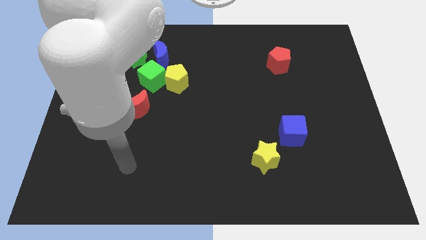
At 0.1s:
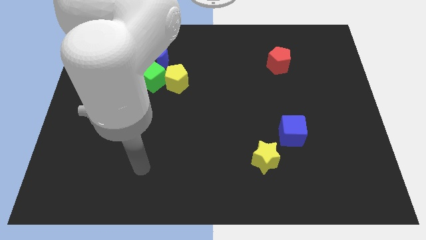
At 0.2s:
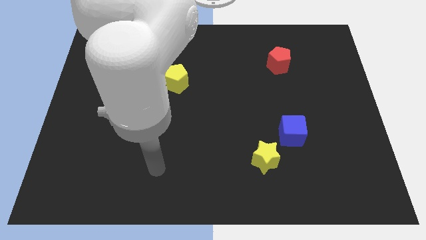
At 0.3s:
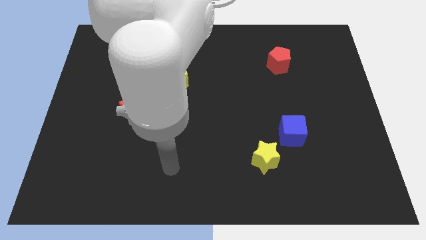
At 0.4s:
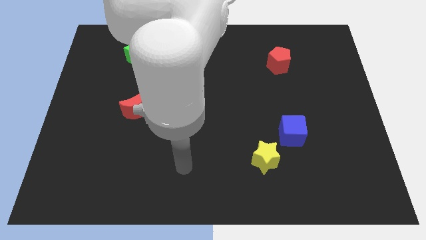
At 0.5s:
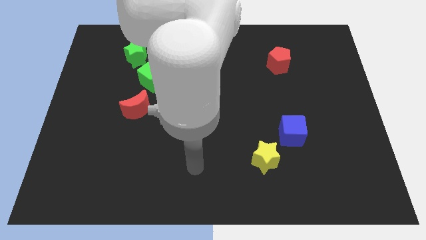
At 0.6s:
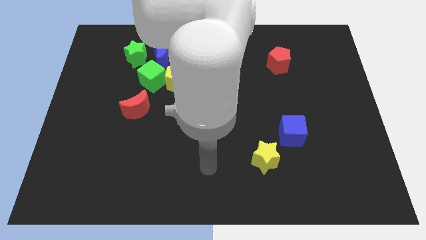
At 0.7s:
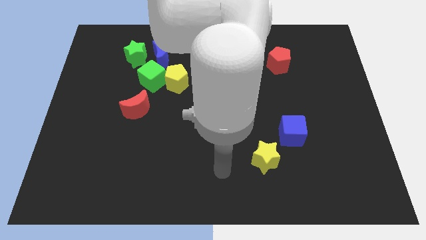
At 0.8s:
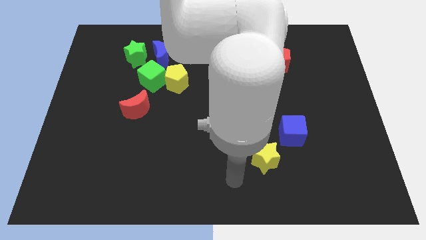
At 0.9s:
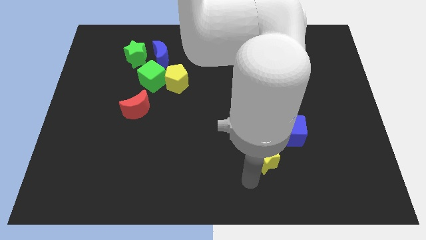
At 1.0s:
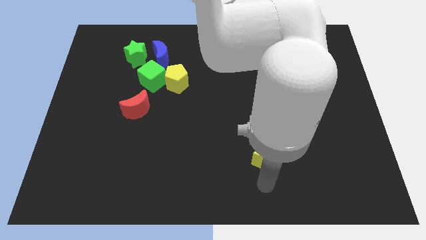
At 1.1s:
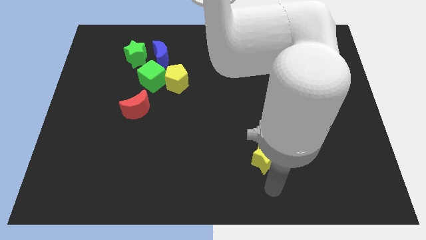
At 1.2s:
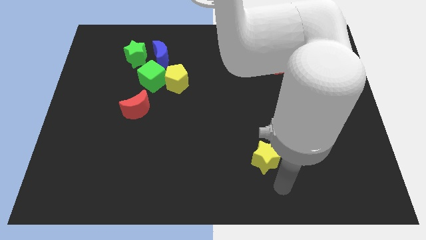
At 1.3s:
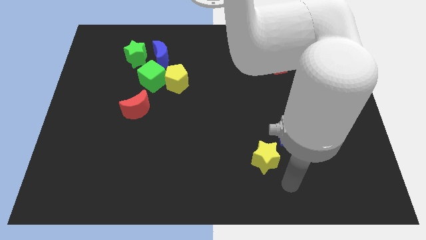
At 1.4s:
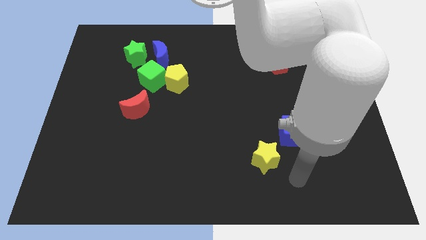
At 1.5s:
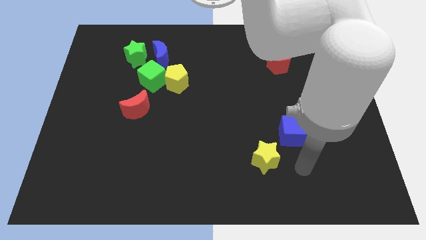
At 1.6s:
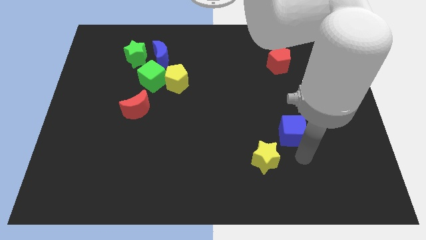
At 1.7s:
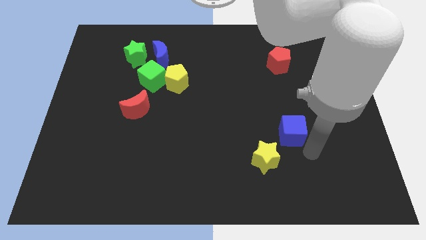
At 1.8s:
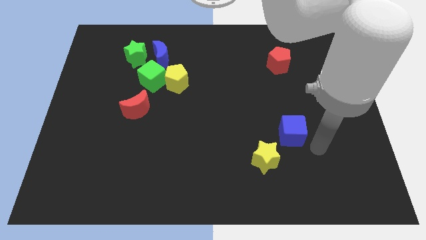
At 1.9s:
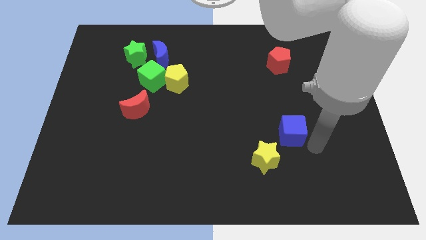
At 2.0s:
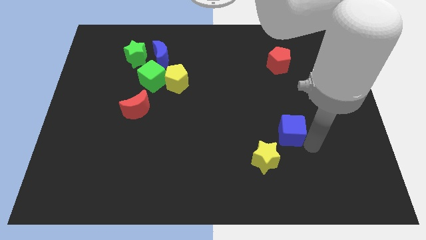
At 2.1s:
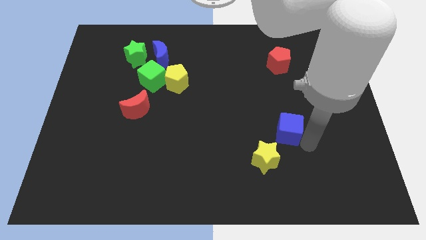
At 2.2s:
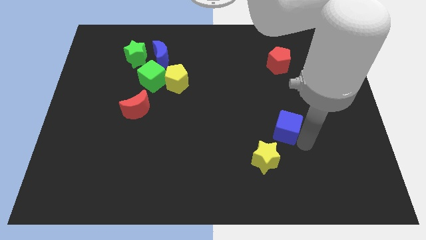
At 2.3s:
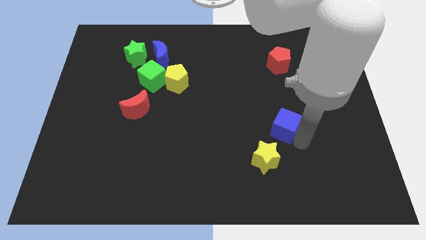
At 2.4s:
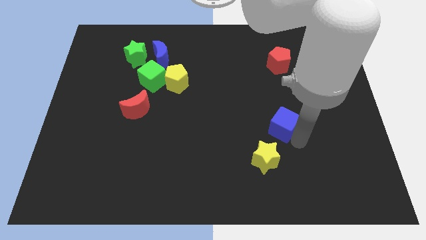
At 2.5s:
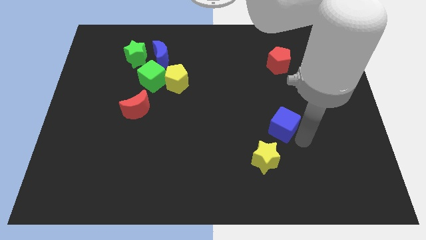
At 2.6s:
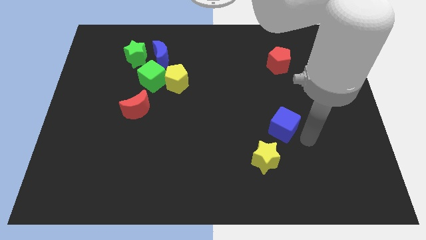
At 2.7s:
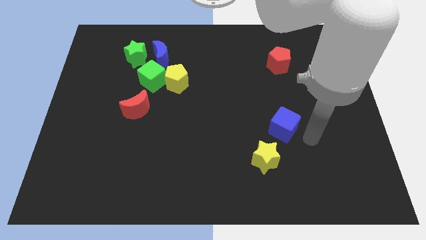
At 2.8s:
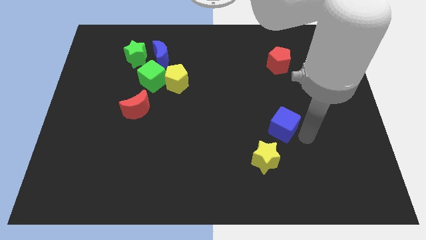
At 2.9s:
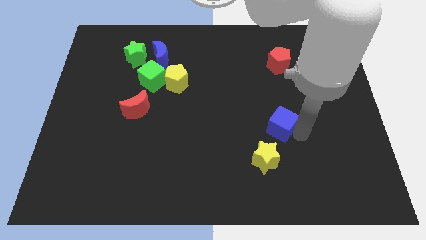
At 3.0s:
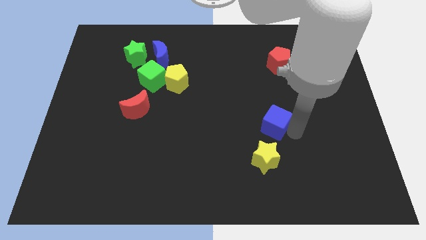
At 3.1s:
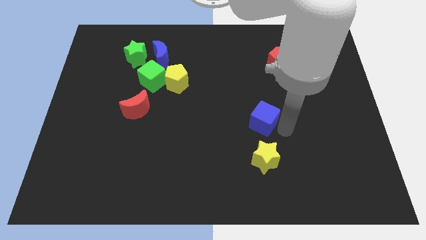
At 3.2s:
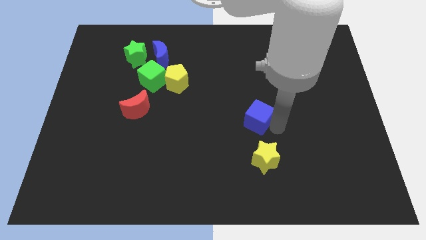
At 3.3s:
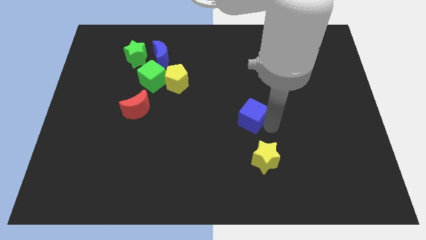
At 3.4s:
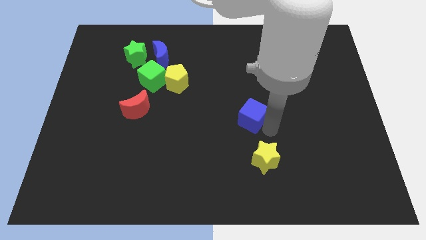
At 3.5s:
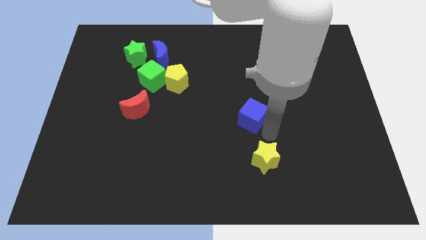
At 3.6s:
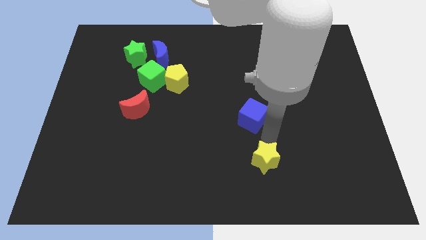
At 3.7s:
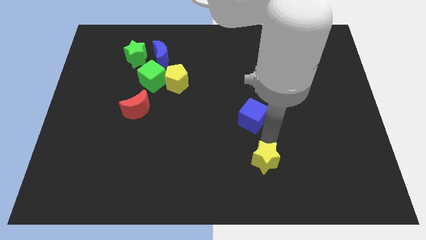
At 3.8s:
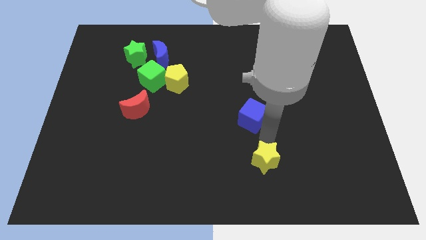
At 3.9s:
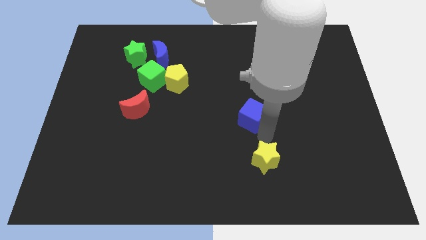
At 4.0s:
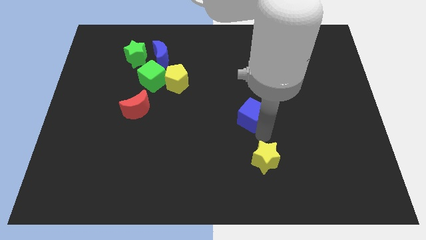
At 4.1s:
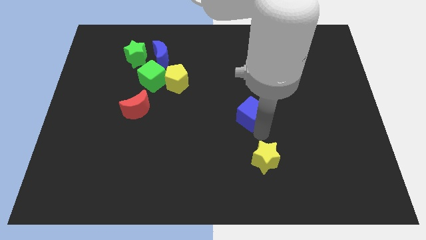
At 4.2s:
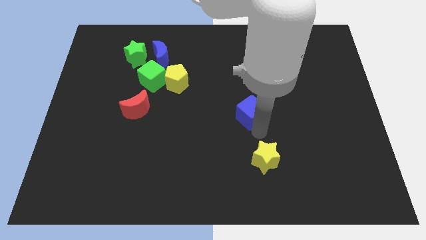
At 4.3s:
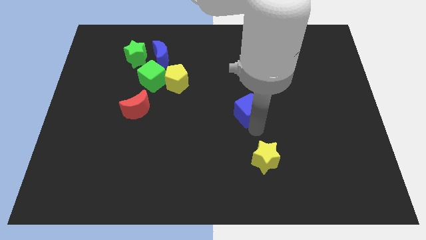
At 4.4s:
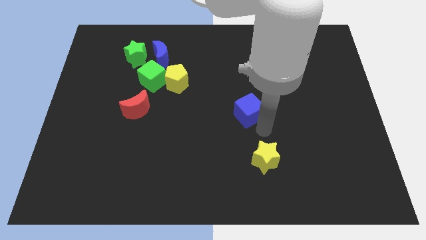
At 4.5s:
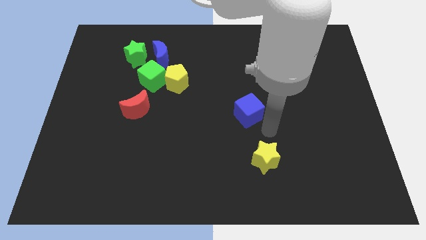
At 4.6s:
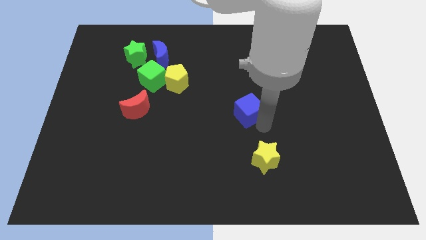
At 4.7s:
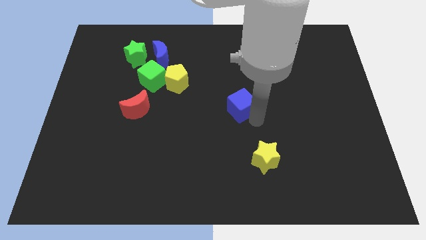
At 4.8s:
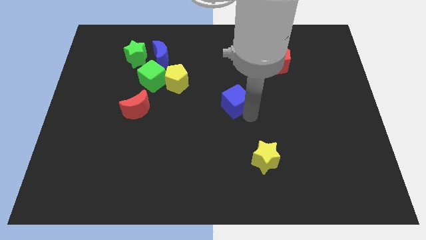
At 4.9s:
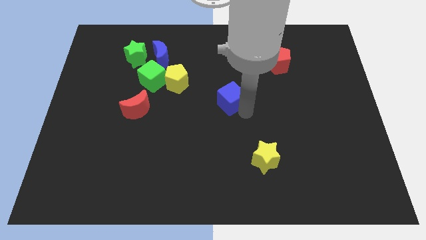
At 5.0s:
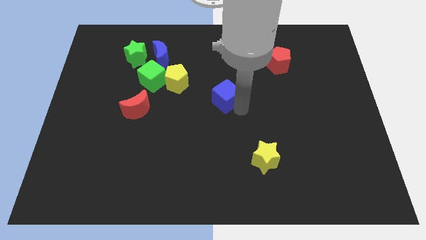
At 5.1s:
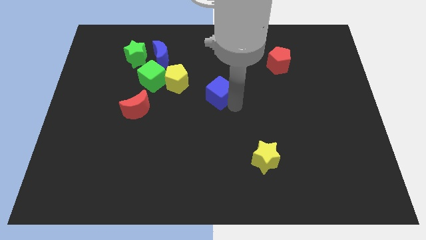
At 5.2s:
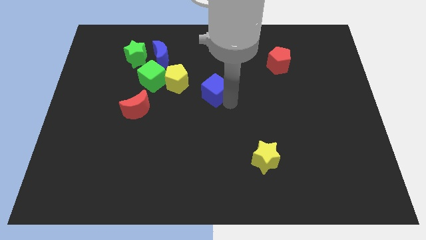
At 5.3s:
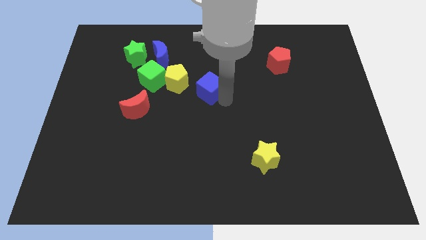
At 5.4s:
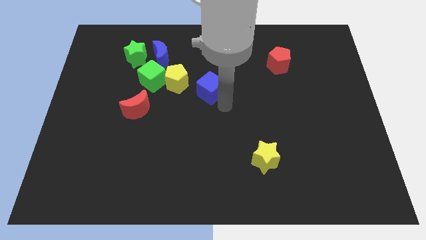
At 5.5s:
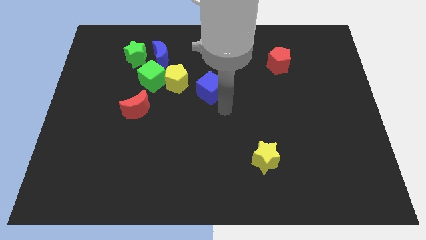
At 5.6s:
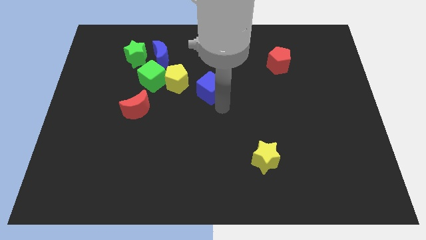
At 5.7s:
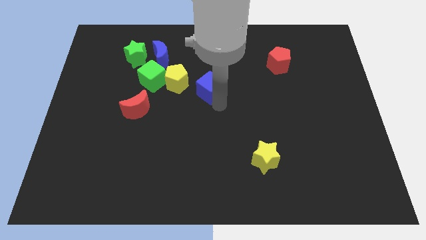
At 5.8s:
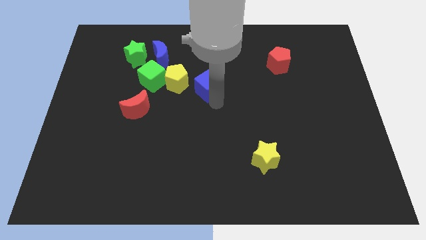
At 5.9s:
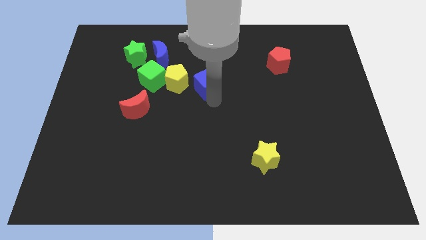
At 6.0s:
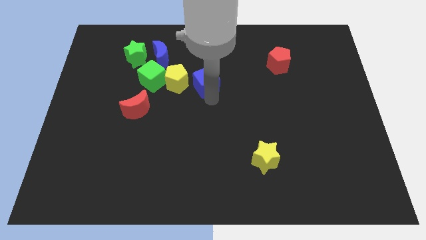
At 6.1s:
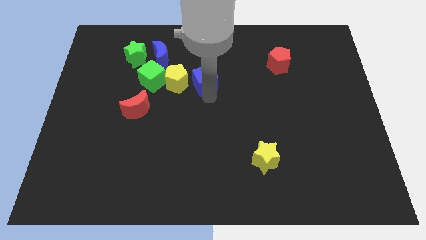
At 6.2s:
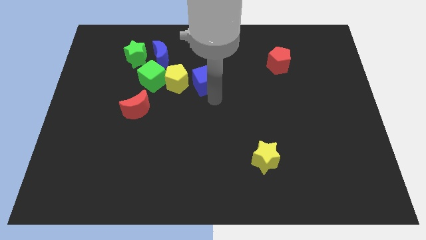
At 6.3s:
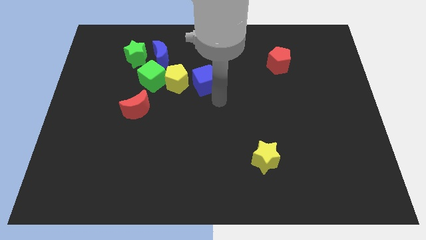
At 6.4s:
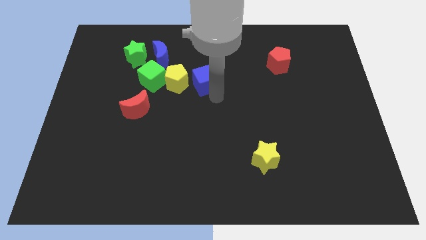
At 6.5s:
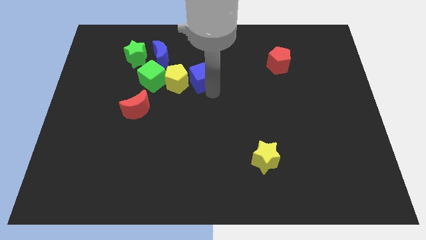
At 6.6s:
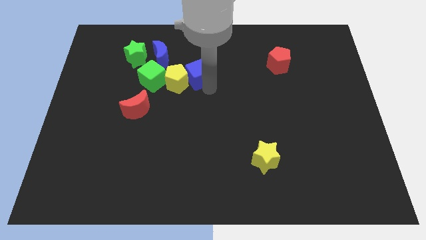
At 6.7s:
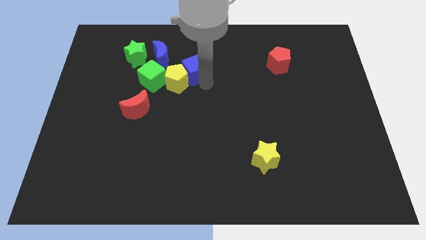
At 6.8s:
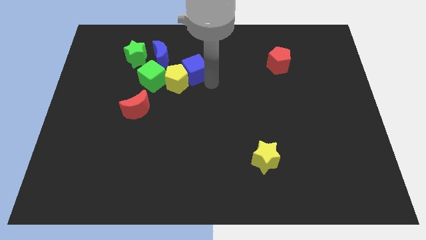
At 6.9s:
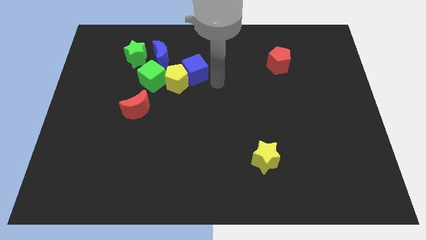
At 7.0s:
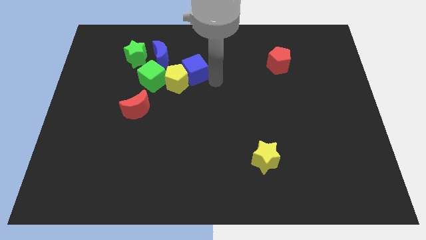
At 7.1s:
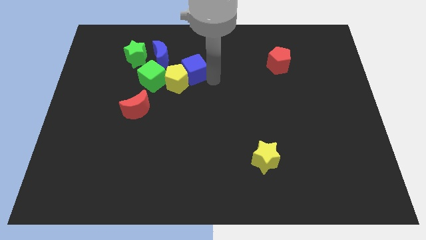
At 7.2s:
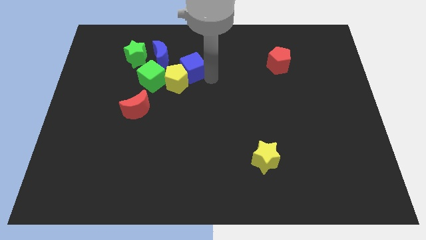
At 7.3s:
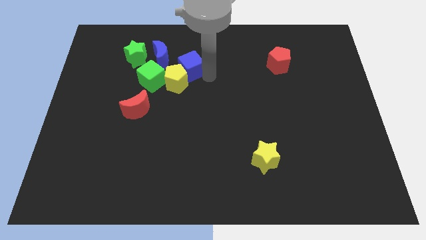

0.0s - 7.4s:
push the blue cube diagonally up and to the right of the green cube
